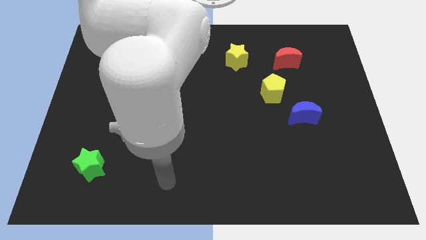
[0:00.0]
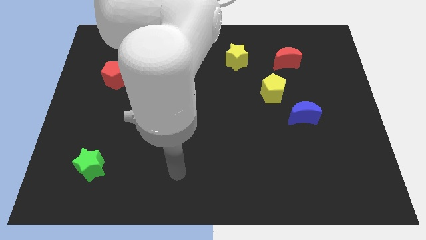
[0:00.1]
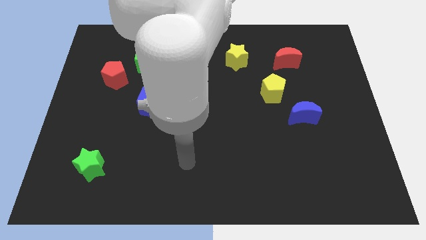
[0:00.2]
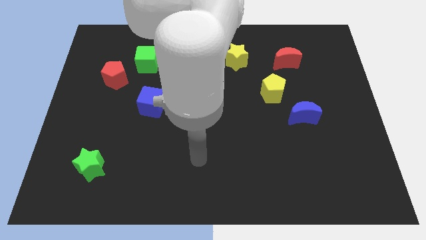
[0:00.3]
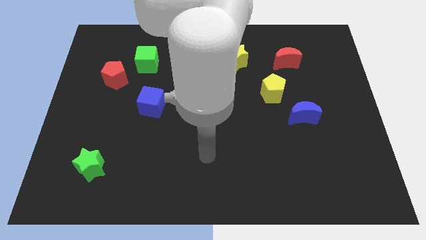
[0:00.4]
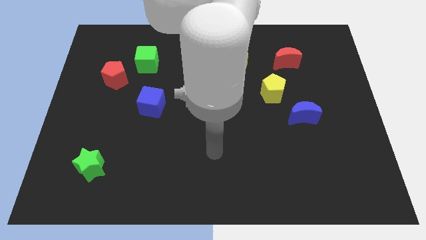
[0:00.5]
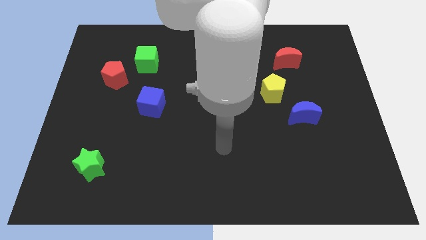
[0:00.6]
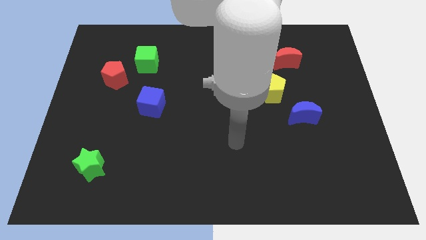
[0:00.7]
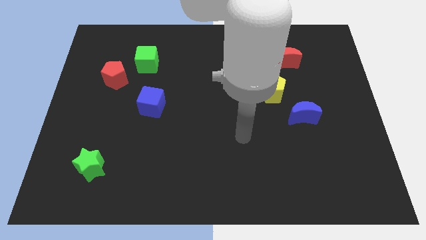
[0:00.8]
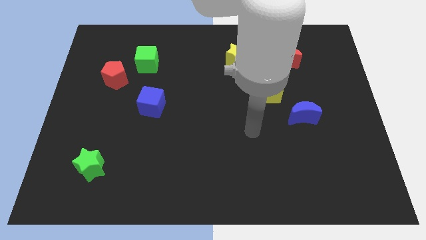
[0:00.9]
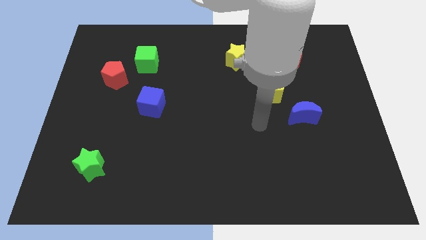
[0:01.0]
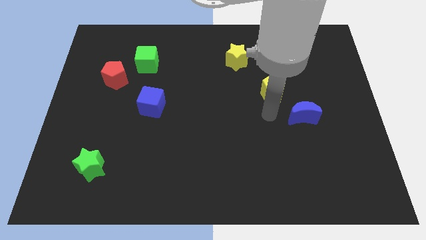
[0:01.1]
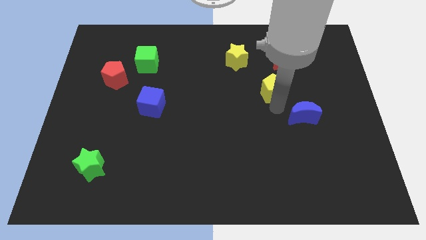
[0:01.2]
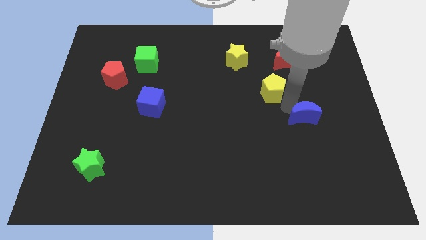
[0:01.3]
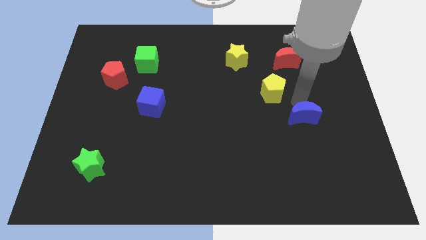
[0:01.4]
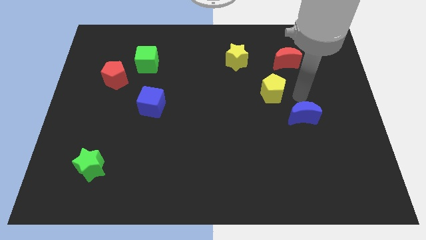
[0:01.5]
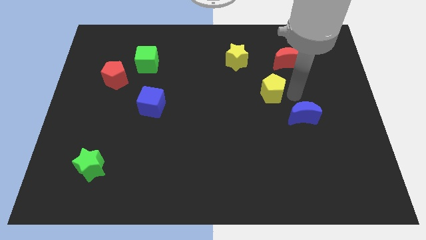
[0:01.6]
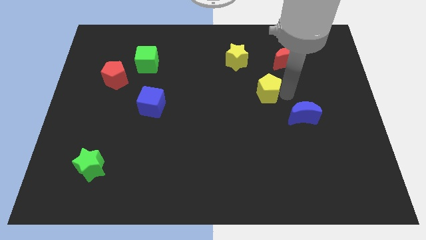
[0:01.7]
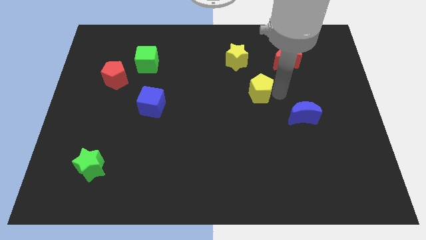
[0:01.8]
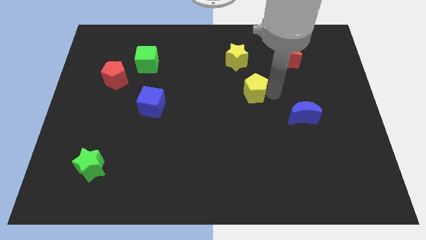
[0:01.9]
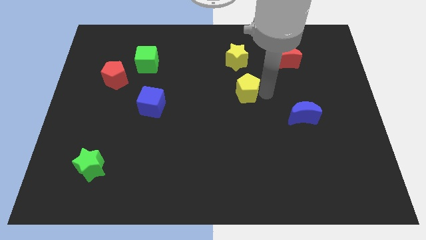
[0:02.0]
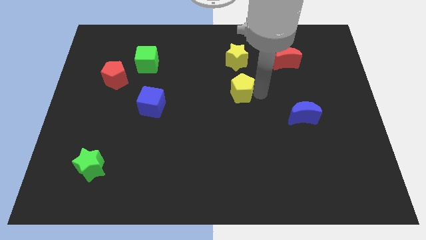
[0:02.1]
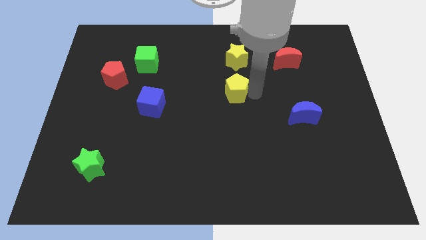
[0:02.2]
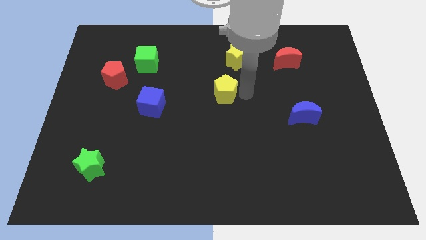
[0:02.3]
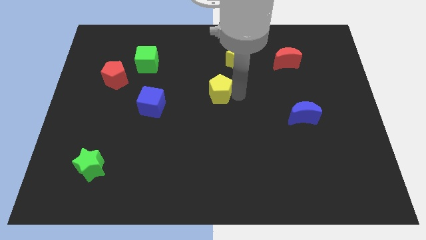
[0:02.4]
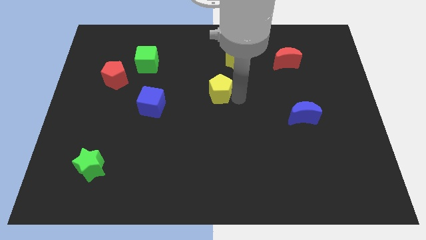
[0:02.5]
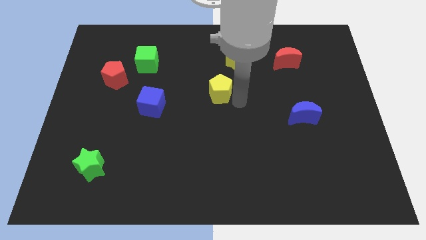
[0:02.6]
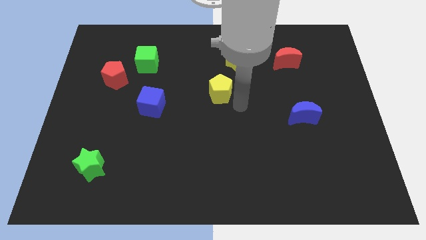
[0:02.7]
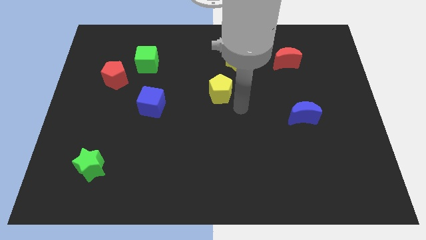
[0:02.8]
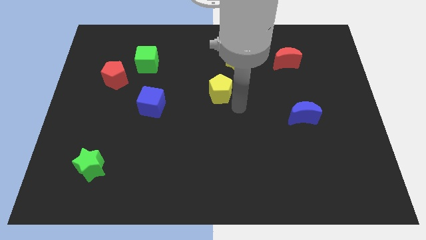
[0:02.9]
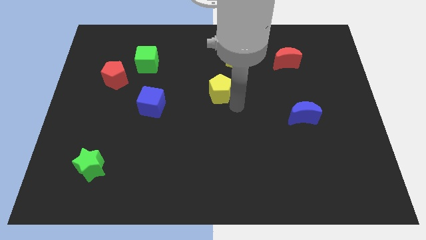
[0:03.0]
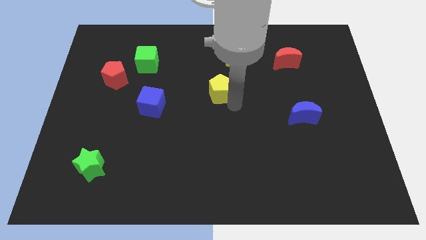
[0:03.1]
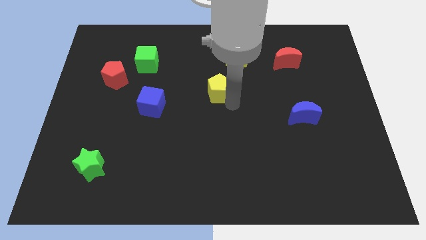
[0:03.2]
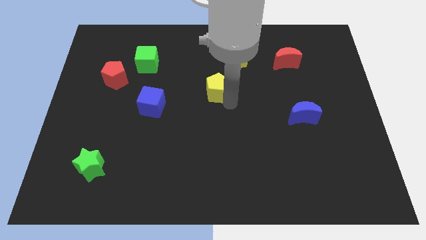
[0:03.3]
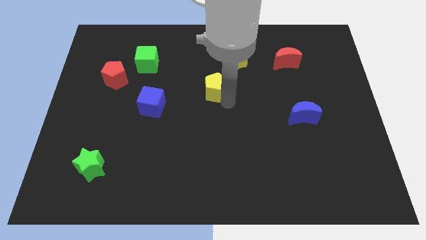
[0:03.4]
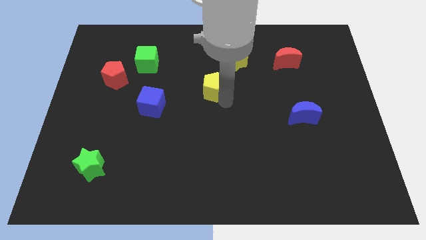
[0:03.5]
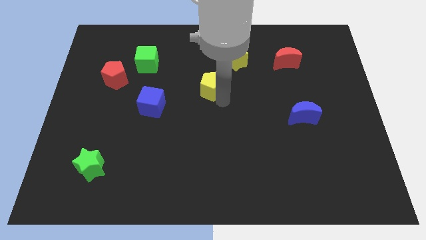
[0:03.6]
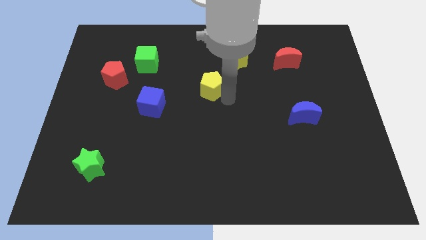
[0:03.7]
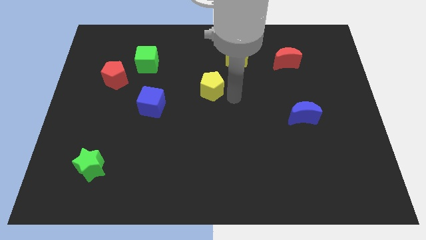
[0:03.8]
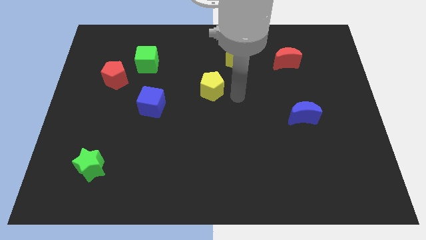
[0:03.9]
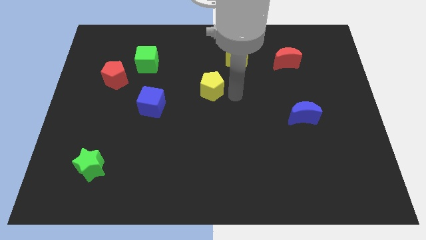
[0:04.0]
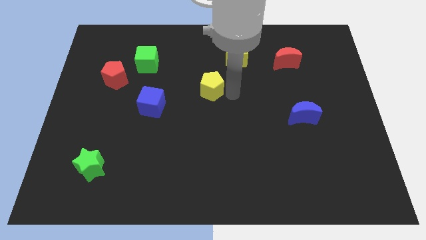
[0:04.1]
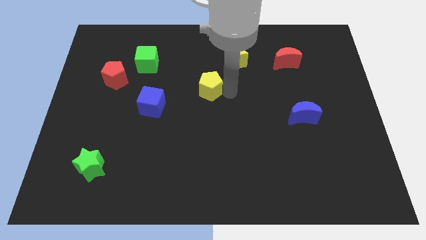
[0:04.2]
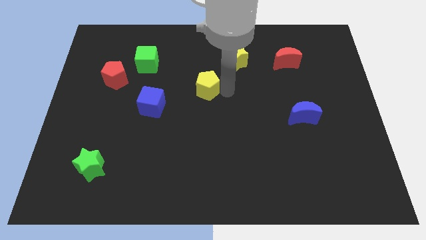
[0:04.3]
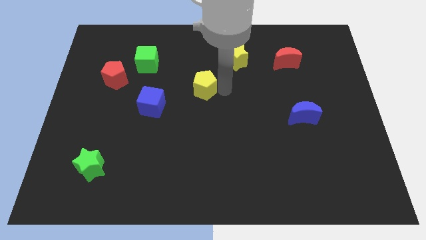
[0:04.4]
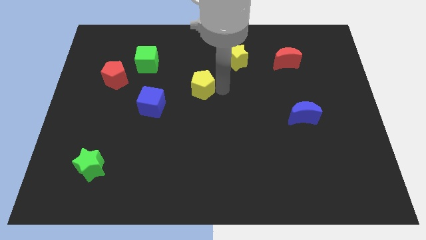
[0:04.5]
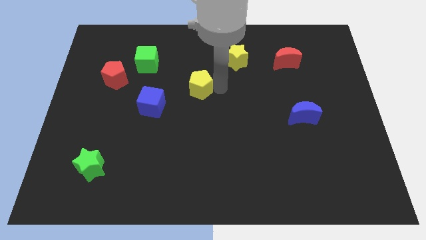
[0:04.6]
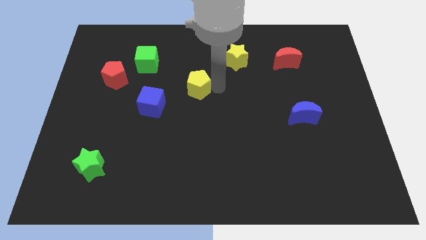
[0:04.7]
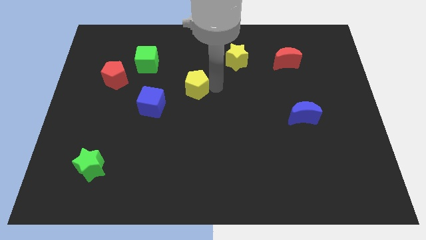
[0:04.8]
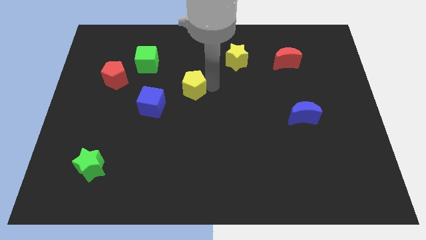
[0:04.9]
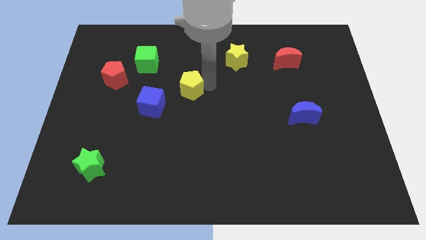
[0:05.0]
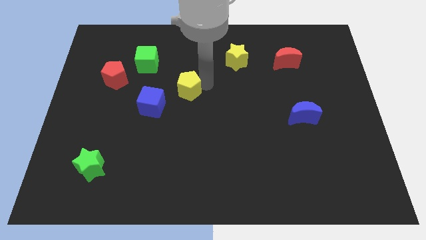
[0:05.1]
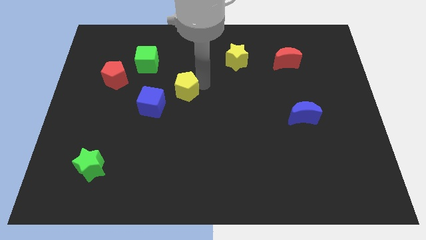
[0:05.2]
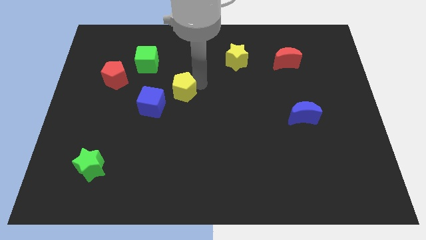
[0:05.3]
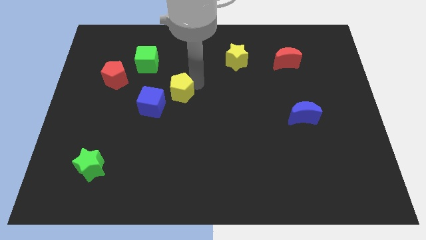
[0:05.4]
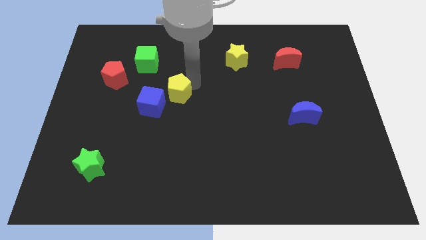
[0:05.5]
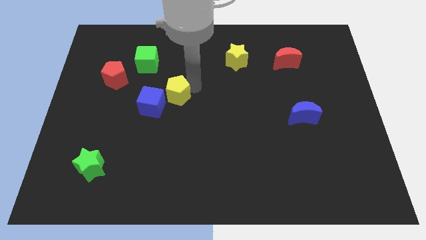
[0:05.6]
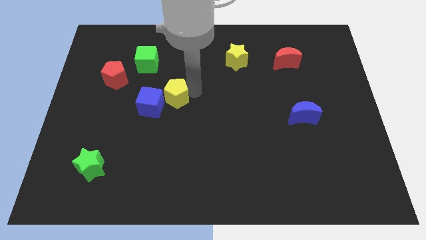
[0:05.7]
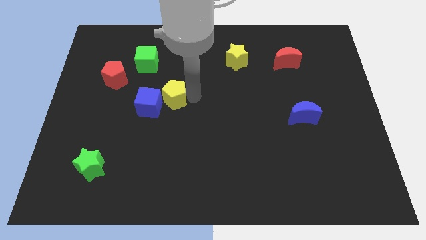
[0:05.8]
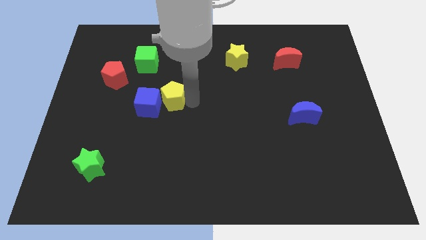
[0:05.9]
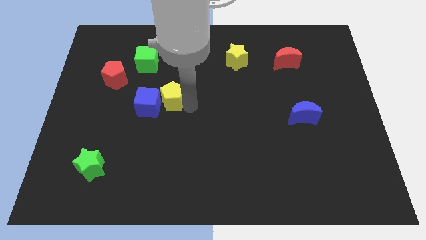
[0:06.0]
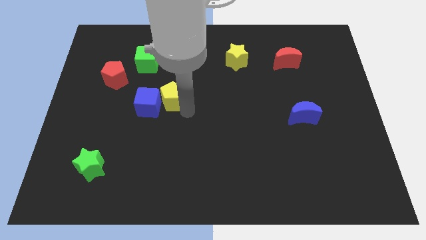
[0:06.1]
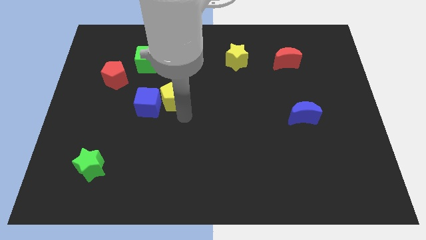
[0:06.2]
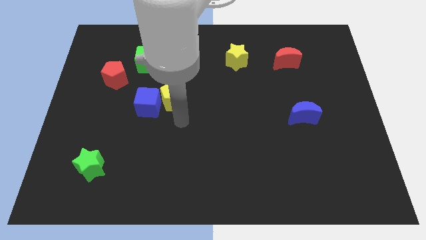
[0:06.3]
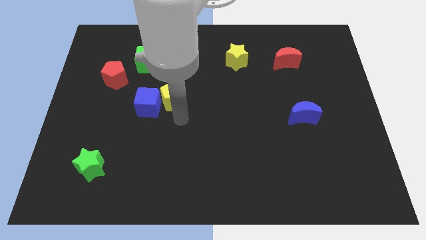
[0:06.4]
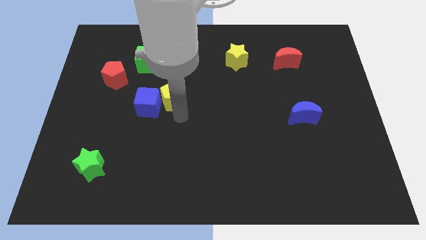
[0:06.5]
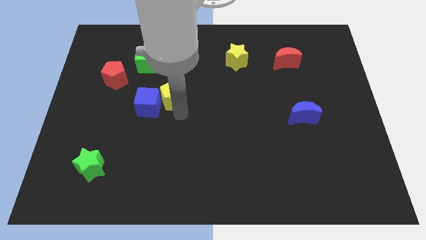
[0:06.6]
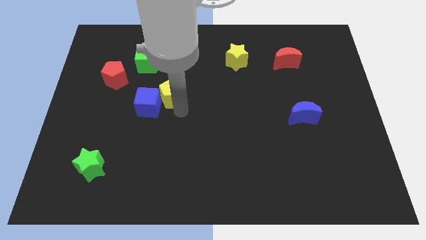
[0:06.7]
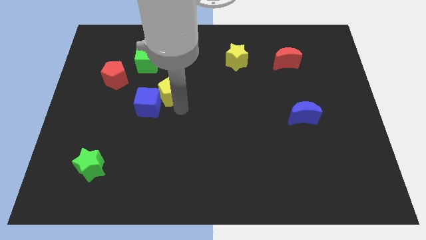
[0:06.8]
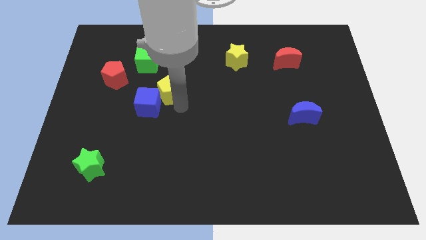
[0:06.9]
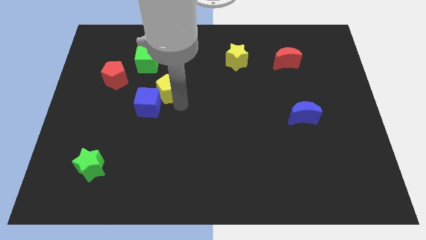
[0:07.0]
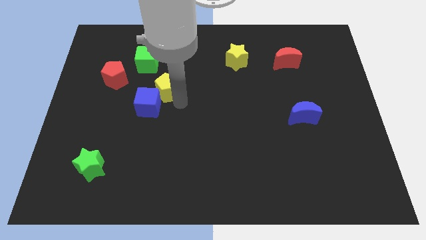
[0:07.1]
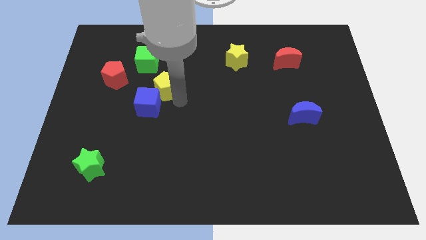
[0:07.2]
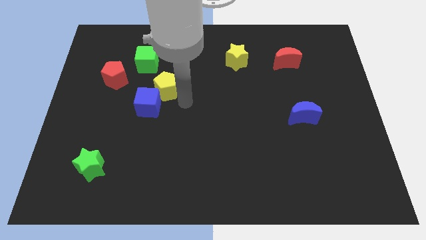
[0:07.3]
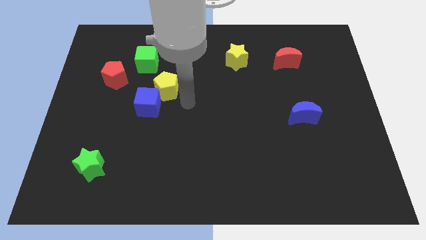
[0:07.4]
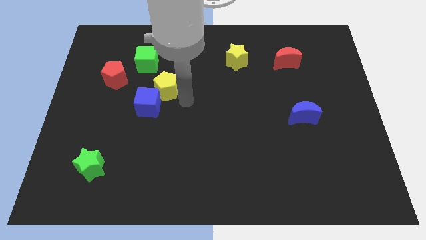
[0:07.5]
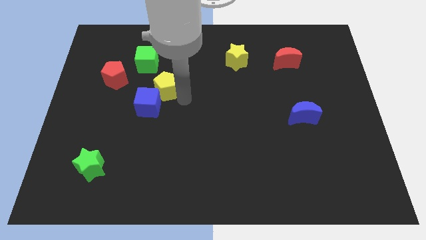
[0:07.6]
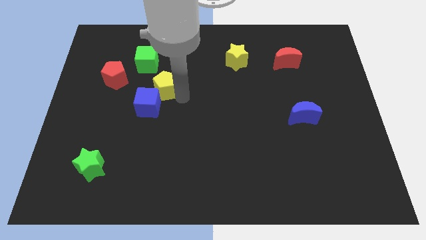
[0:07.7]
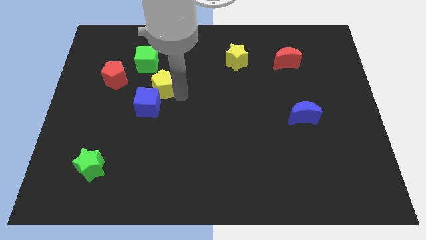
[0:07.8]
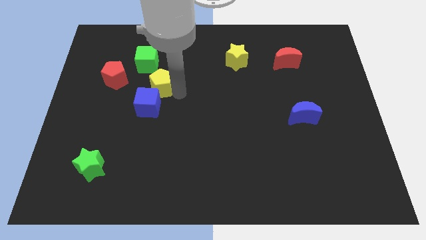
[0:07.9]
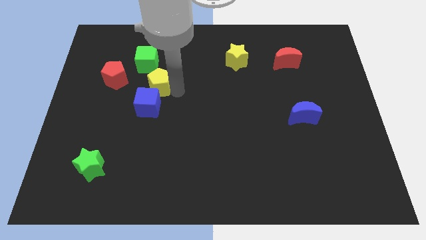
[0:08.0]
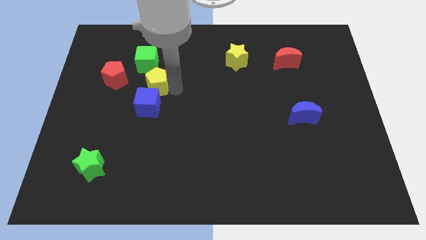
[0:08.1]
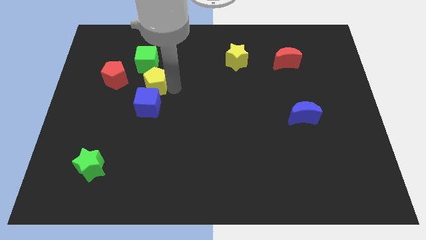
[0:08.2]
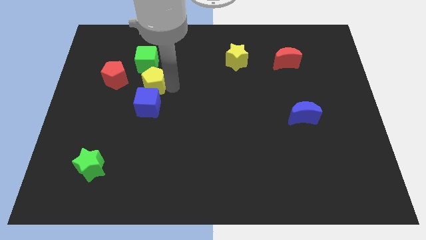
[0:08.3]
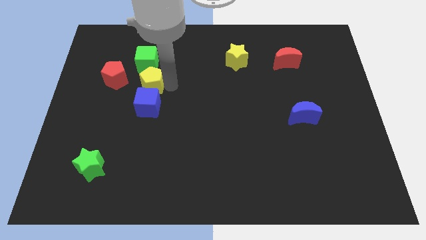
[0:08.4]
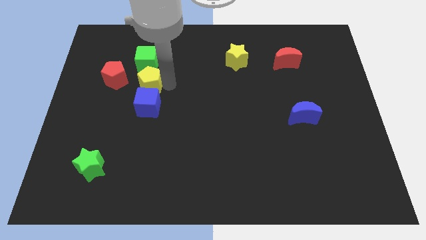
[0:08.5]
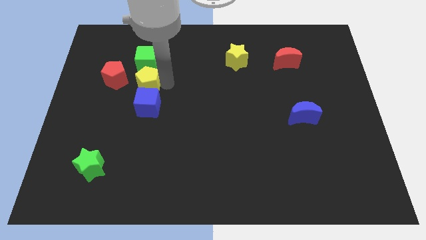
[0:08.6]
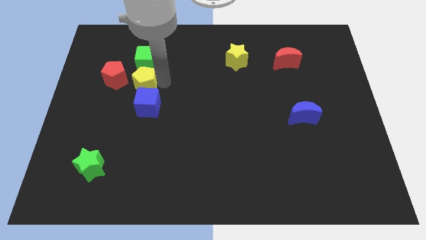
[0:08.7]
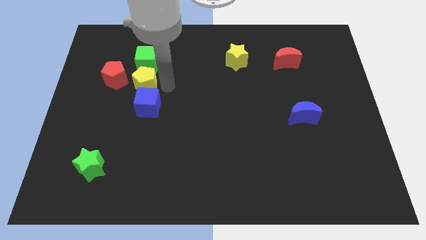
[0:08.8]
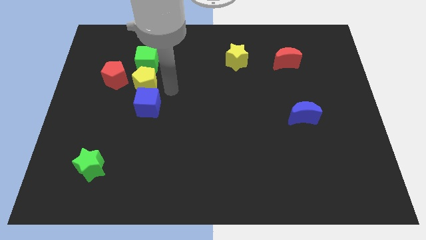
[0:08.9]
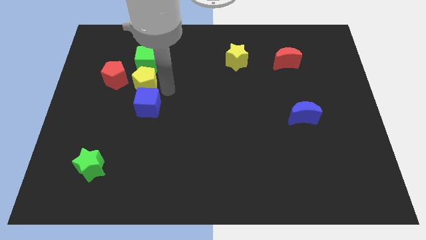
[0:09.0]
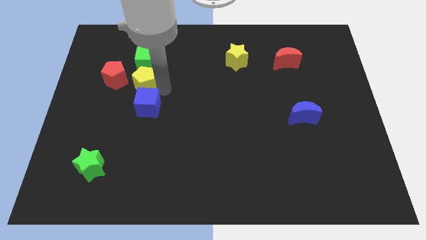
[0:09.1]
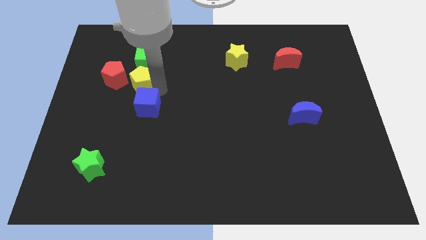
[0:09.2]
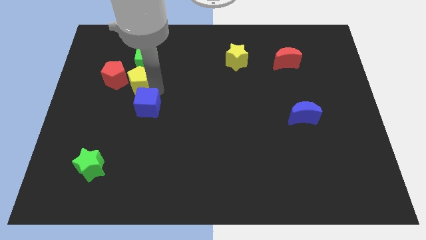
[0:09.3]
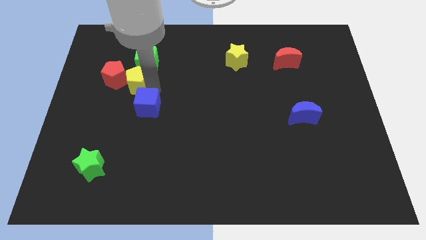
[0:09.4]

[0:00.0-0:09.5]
move the yellow pentagon next to the red pentagon
